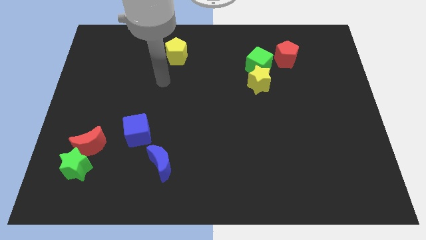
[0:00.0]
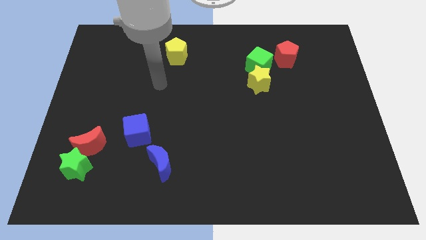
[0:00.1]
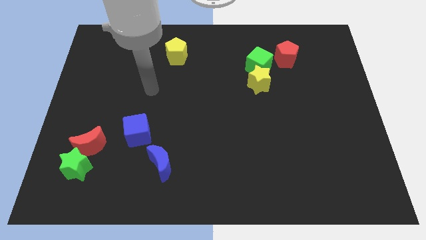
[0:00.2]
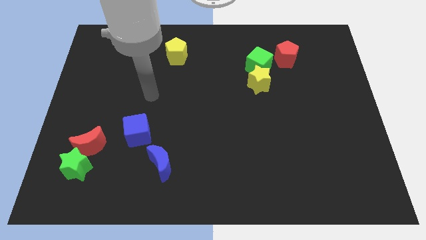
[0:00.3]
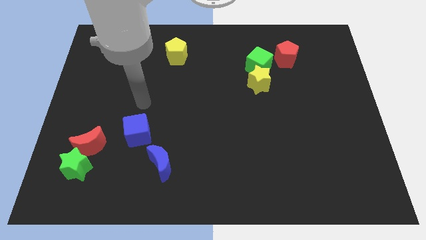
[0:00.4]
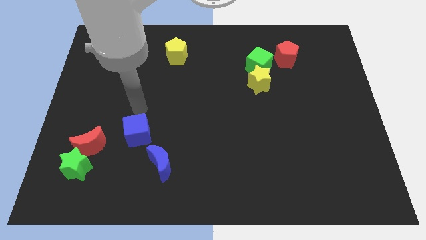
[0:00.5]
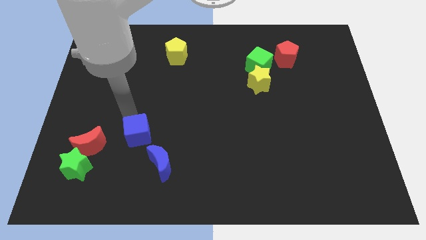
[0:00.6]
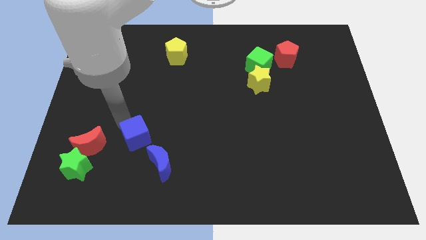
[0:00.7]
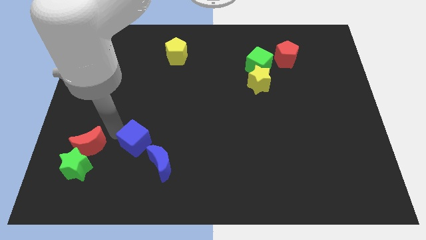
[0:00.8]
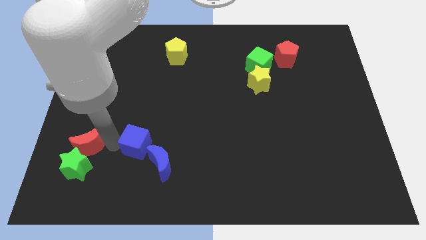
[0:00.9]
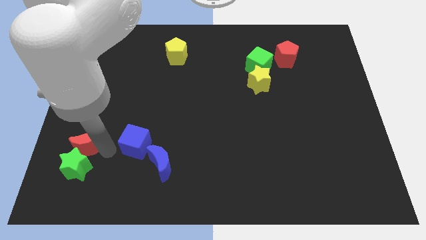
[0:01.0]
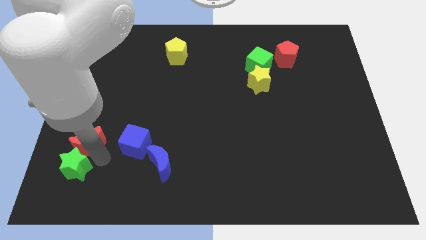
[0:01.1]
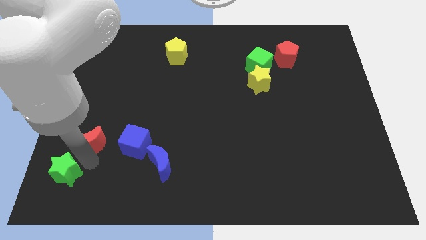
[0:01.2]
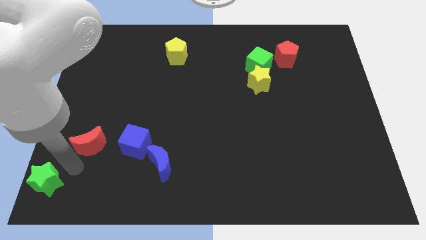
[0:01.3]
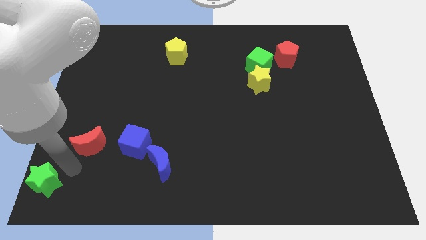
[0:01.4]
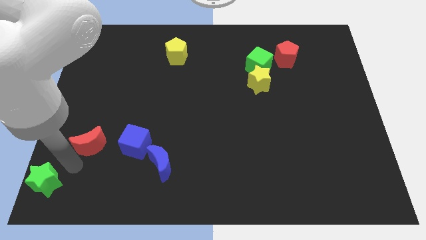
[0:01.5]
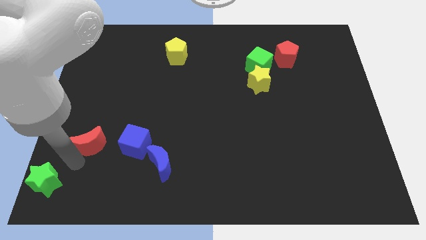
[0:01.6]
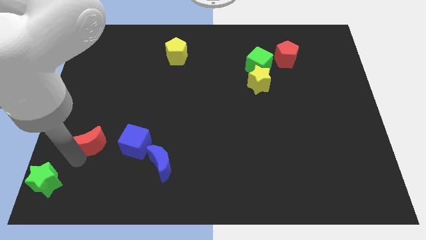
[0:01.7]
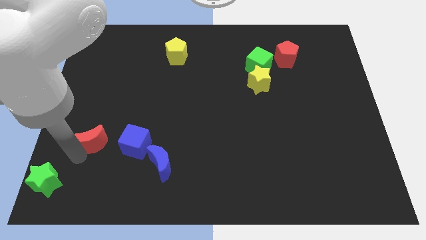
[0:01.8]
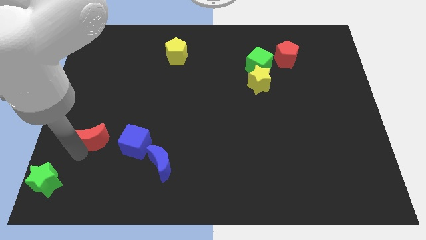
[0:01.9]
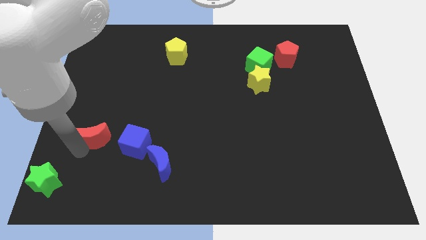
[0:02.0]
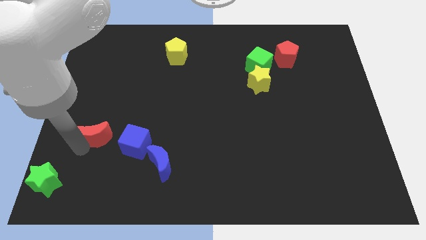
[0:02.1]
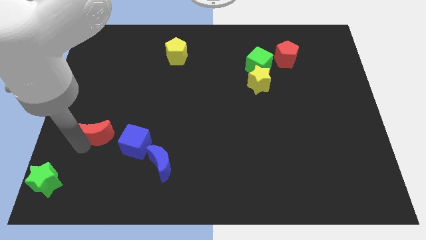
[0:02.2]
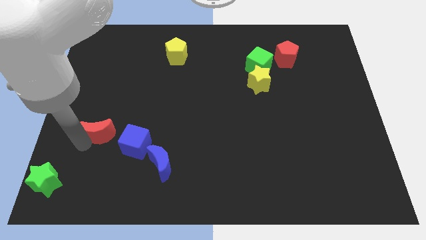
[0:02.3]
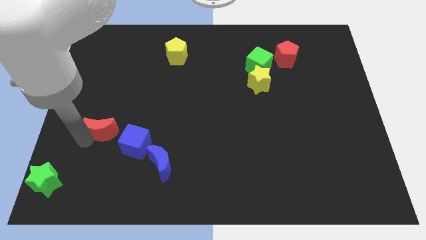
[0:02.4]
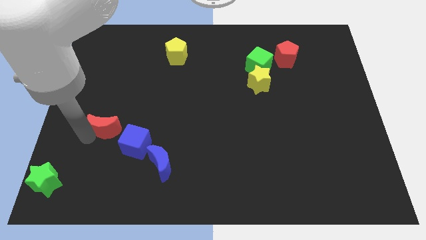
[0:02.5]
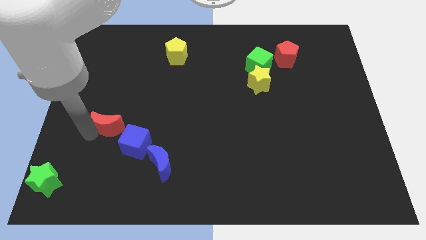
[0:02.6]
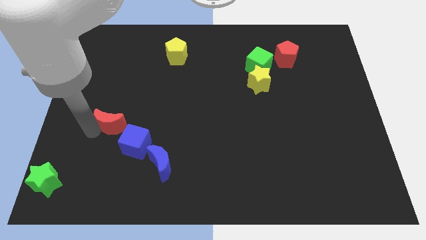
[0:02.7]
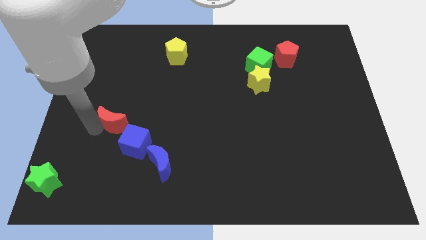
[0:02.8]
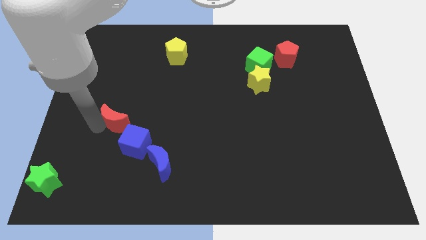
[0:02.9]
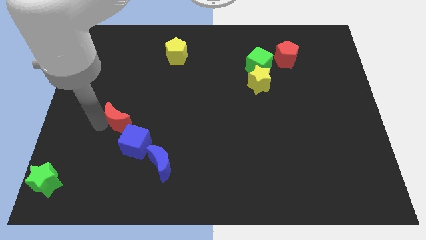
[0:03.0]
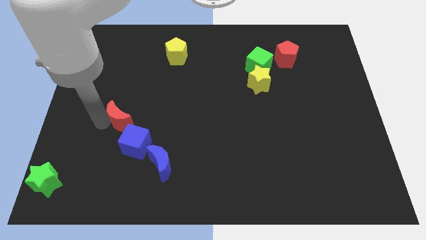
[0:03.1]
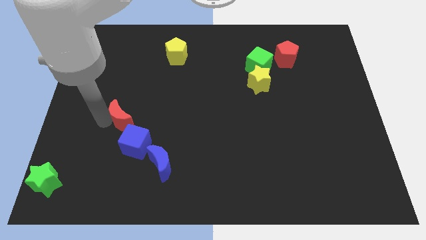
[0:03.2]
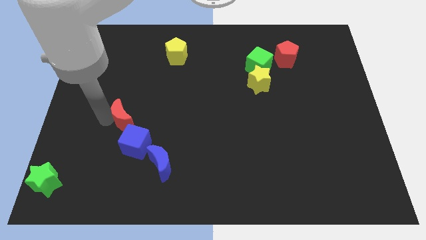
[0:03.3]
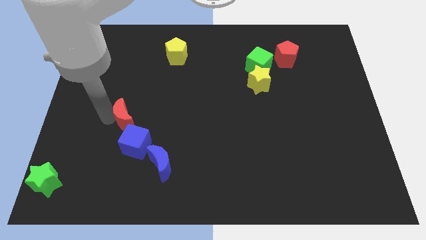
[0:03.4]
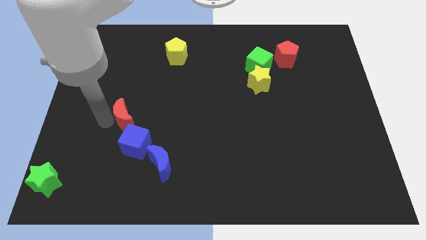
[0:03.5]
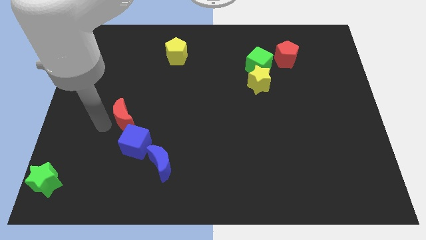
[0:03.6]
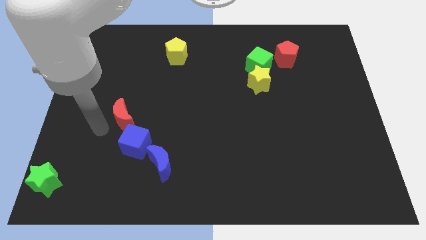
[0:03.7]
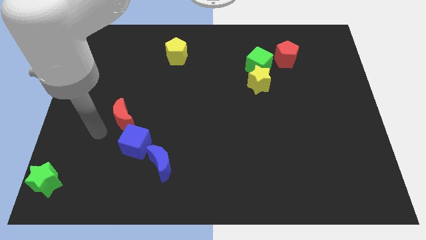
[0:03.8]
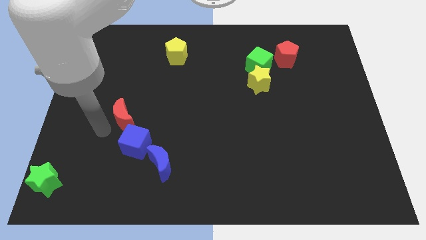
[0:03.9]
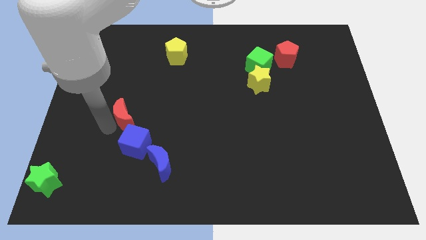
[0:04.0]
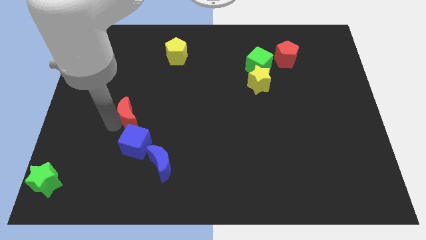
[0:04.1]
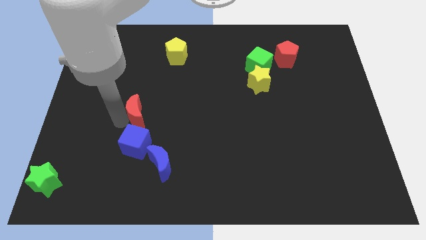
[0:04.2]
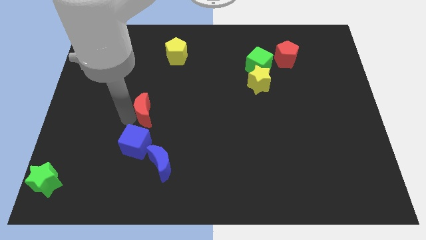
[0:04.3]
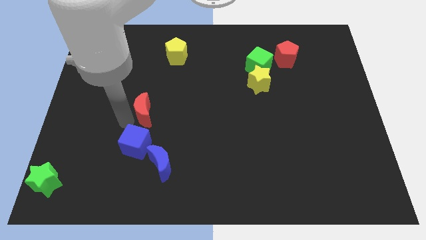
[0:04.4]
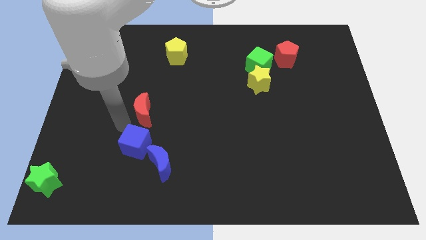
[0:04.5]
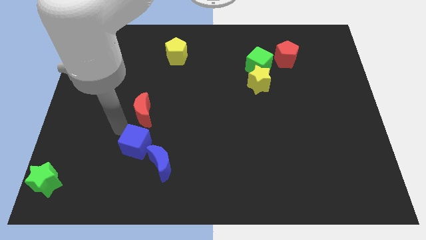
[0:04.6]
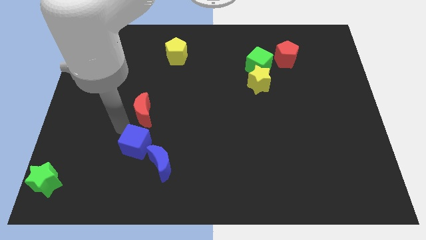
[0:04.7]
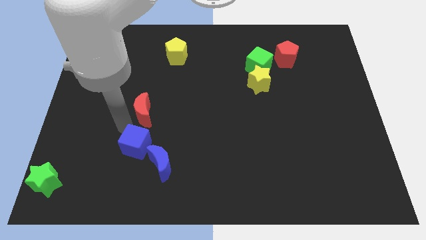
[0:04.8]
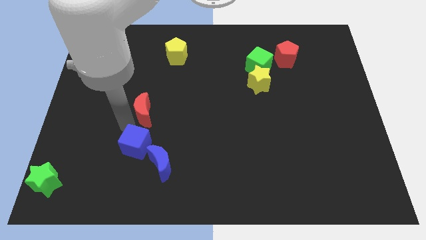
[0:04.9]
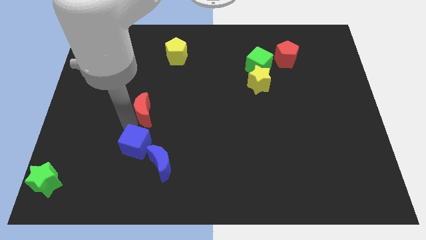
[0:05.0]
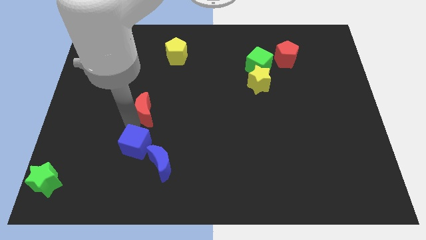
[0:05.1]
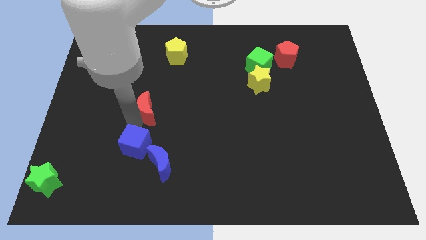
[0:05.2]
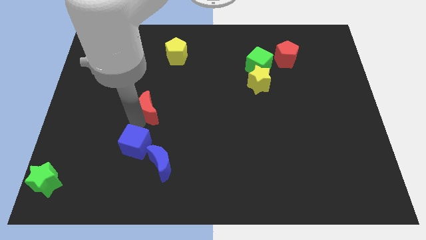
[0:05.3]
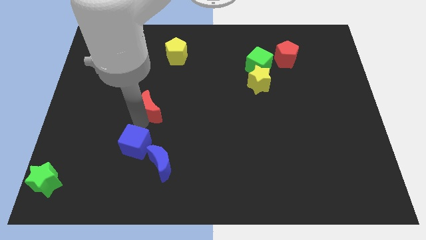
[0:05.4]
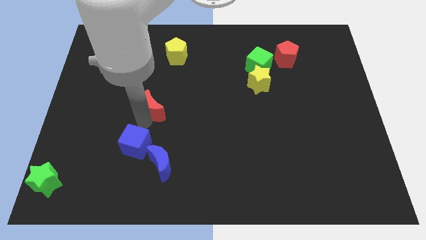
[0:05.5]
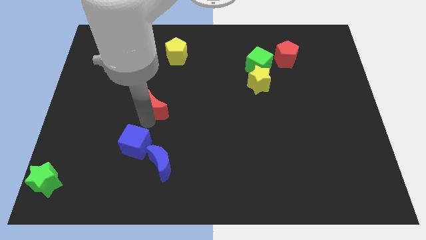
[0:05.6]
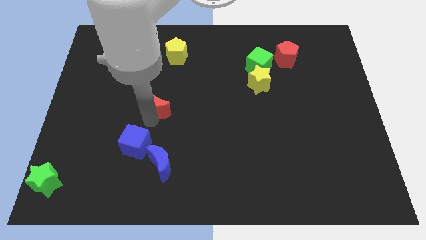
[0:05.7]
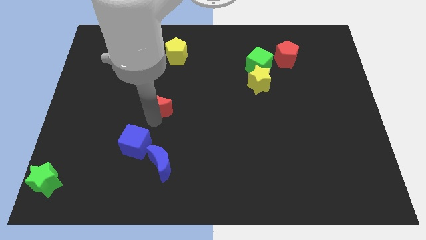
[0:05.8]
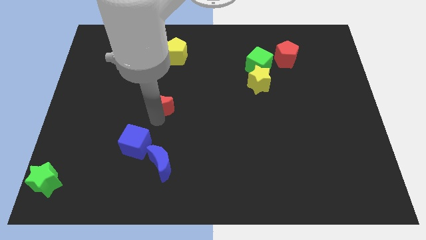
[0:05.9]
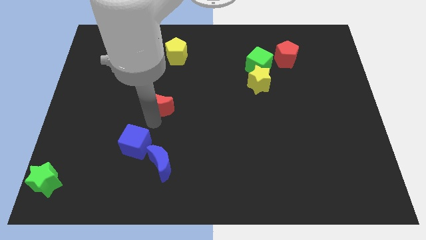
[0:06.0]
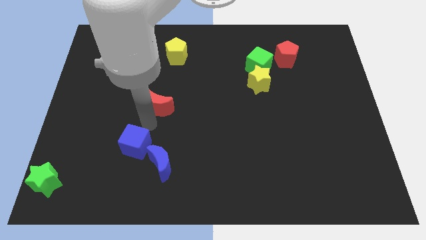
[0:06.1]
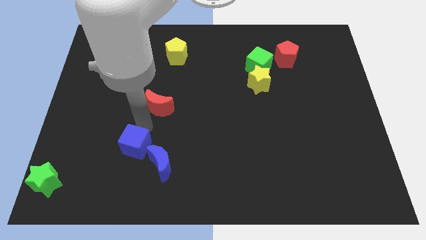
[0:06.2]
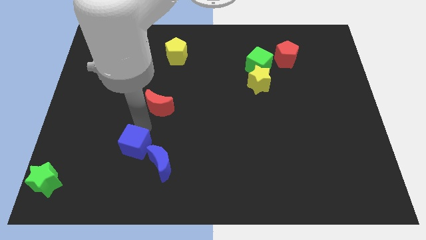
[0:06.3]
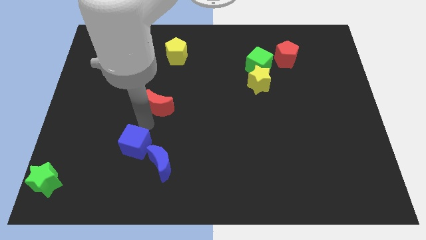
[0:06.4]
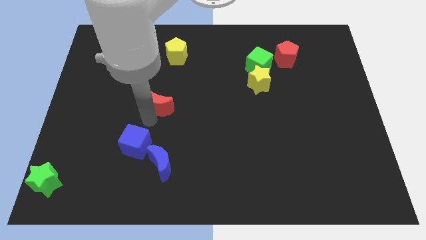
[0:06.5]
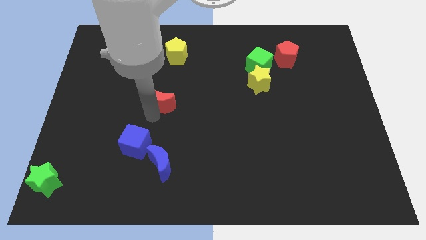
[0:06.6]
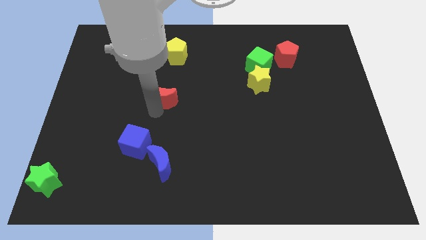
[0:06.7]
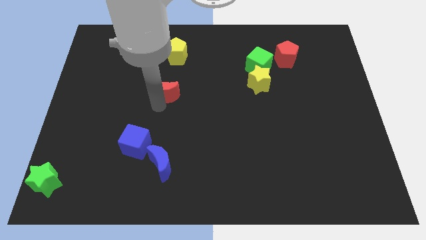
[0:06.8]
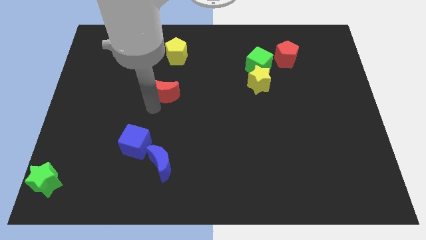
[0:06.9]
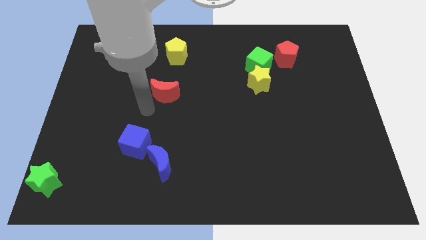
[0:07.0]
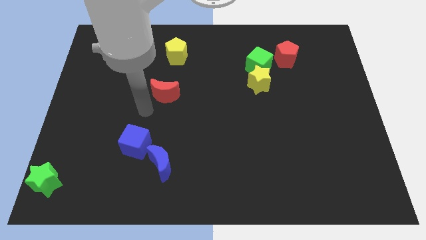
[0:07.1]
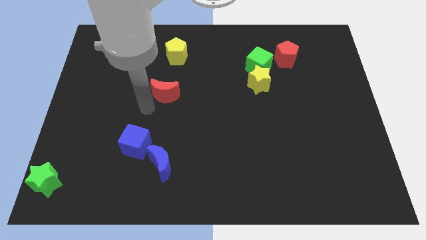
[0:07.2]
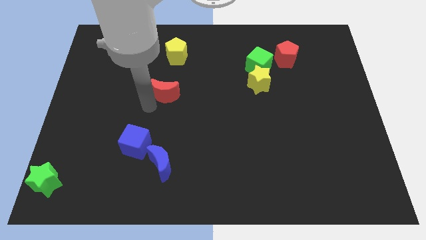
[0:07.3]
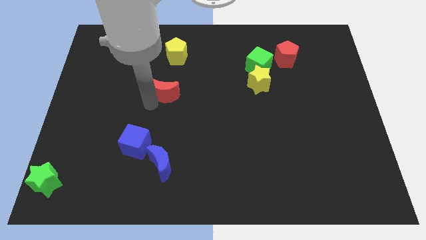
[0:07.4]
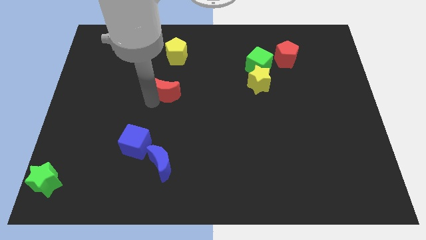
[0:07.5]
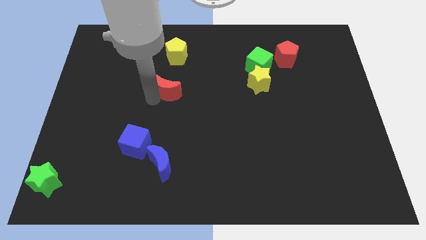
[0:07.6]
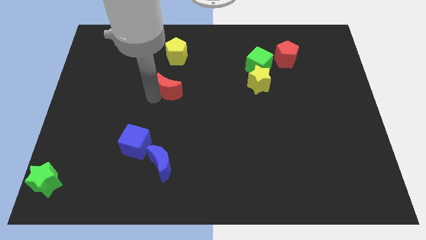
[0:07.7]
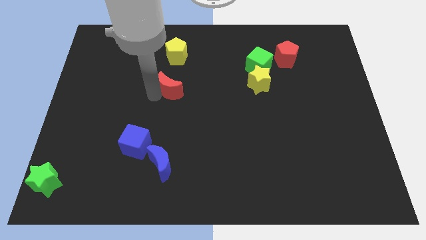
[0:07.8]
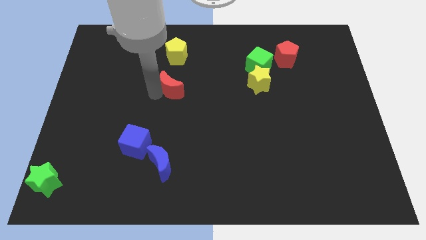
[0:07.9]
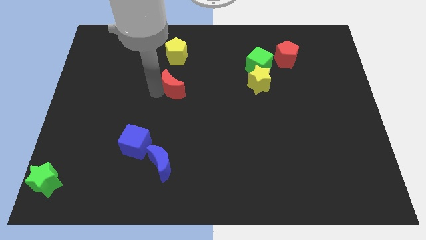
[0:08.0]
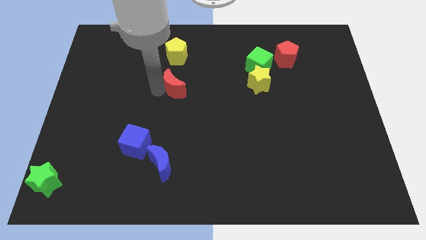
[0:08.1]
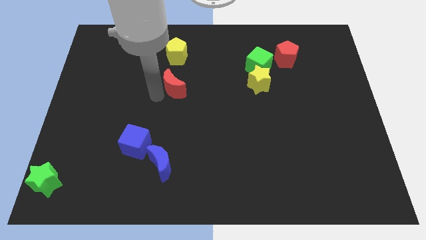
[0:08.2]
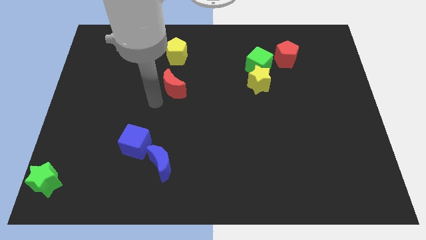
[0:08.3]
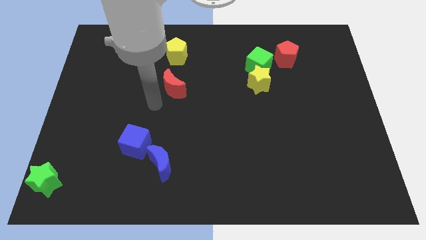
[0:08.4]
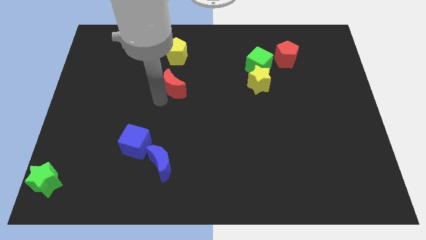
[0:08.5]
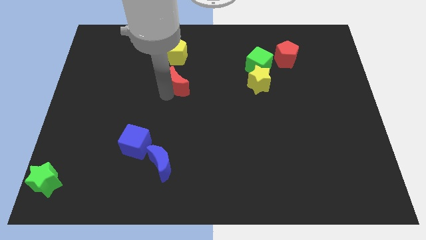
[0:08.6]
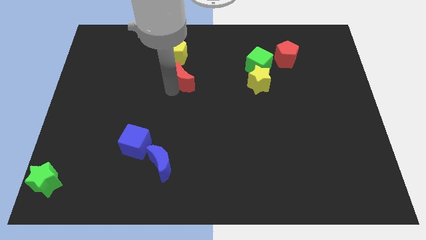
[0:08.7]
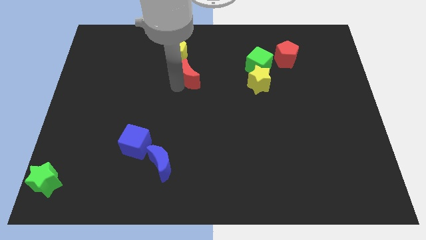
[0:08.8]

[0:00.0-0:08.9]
slide the red moon diagonally down and to the right of the yellow pentagon
